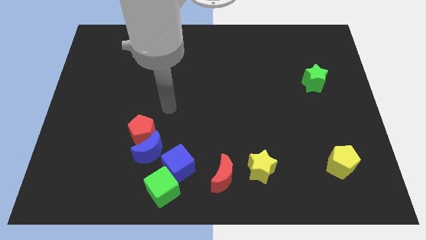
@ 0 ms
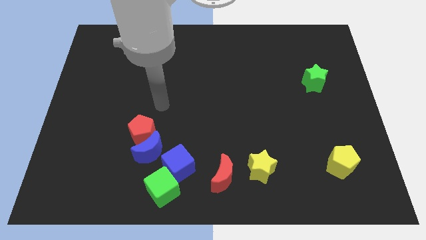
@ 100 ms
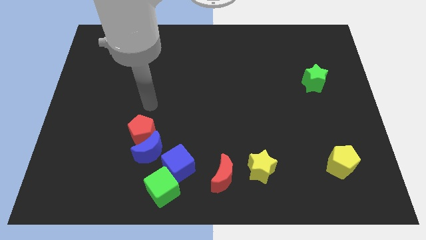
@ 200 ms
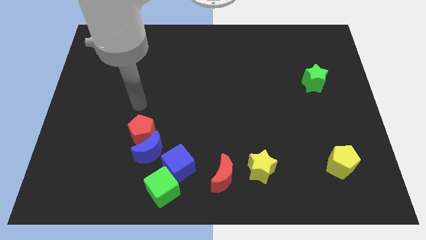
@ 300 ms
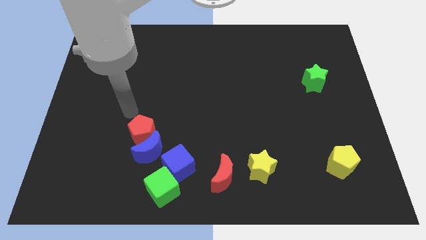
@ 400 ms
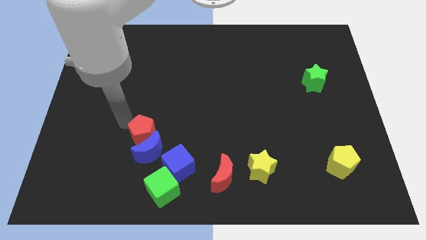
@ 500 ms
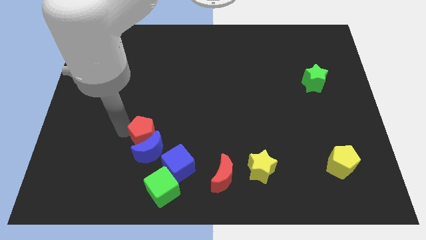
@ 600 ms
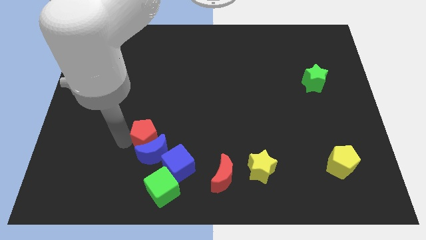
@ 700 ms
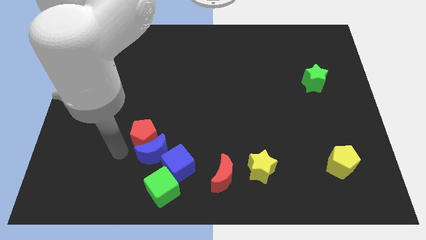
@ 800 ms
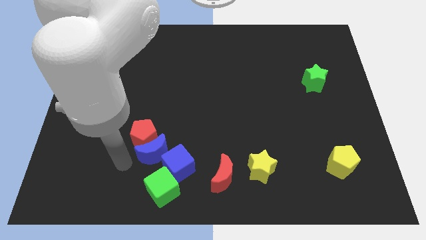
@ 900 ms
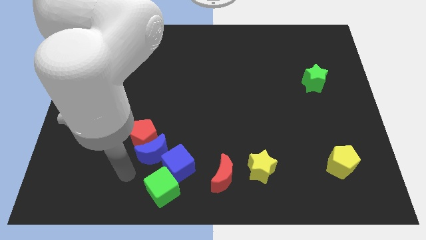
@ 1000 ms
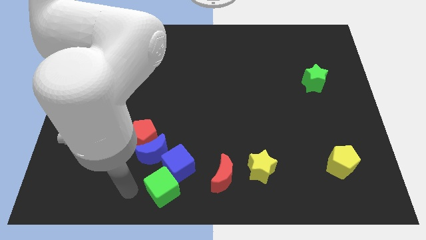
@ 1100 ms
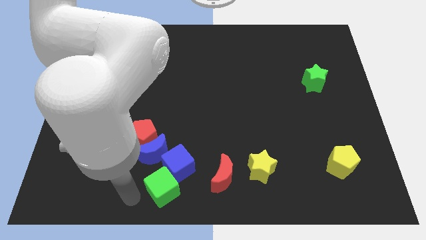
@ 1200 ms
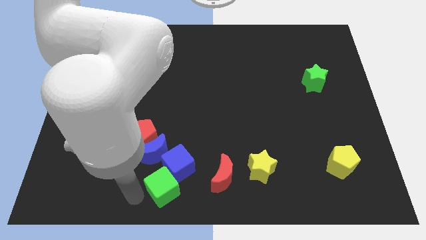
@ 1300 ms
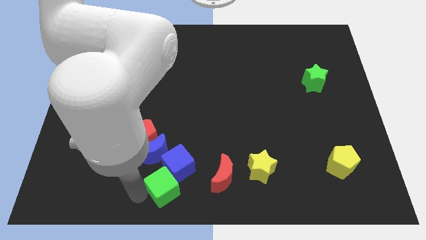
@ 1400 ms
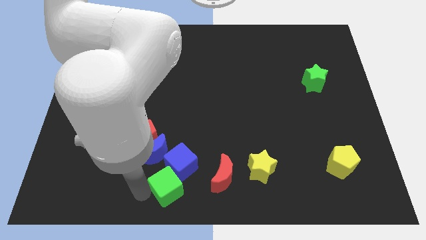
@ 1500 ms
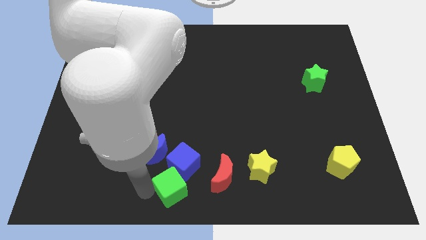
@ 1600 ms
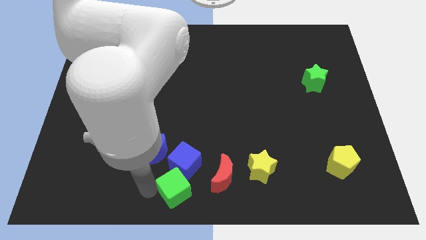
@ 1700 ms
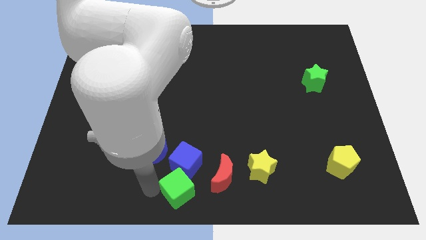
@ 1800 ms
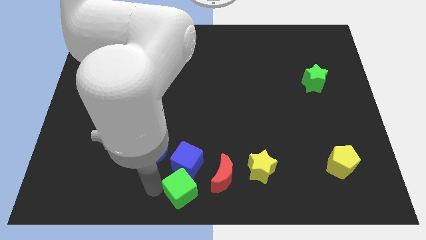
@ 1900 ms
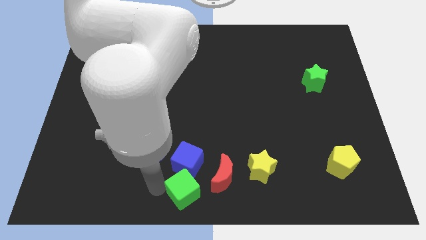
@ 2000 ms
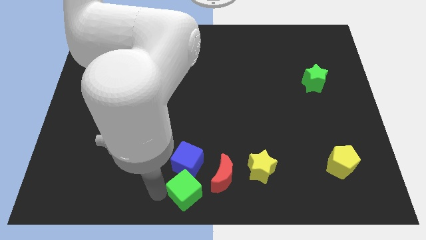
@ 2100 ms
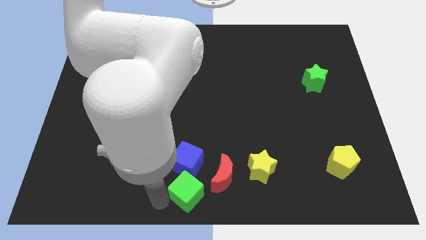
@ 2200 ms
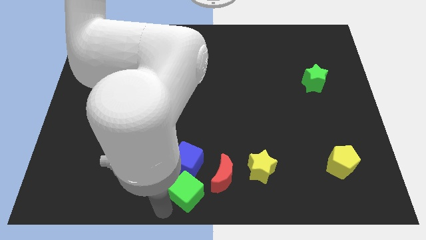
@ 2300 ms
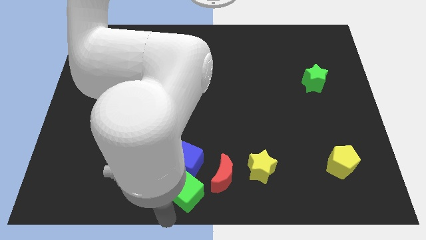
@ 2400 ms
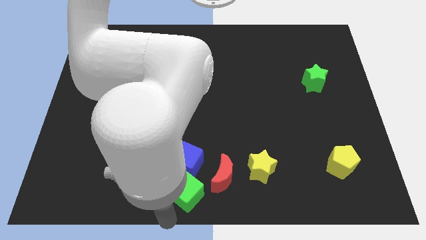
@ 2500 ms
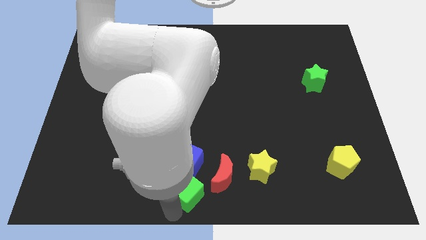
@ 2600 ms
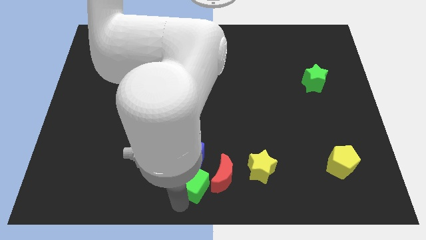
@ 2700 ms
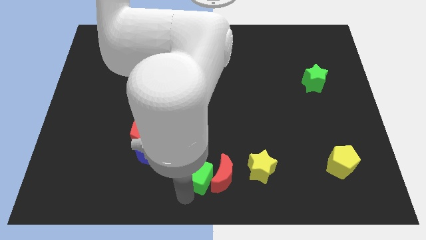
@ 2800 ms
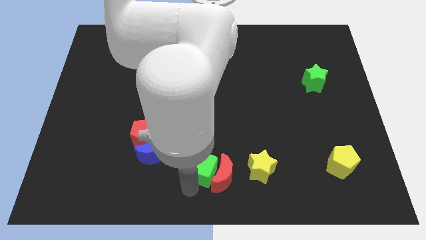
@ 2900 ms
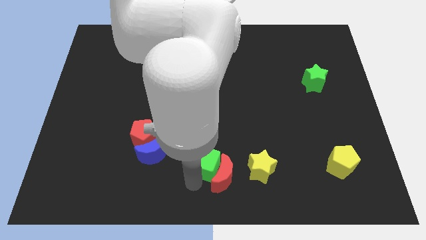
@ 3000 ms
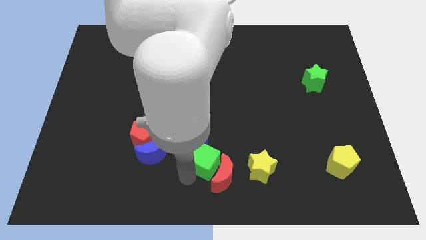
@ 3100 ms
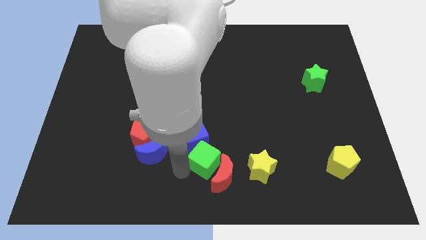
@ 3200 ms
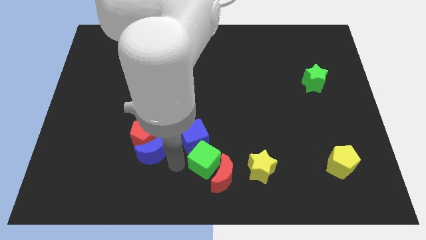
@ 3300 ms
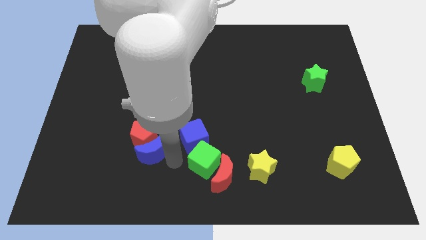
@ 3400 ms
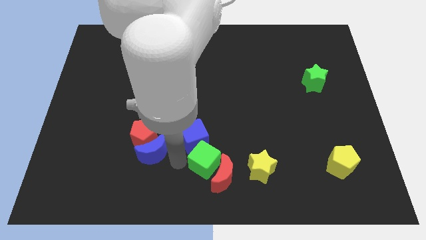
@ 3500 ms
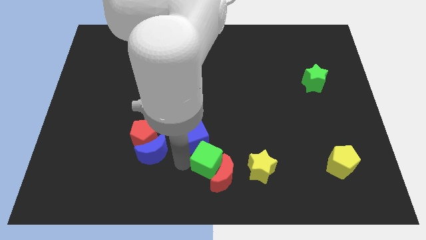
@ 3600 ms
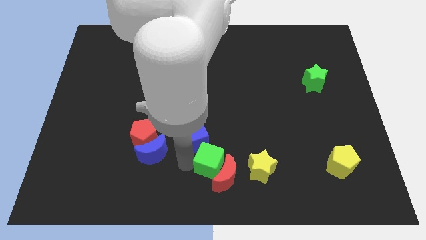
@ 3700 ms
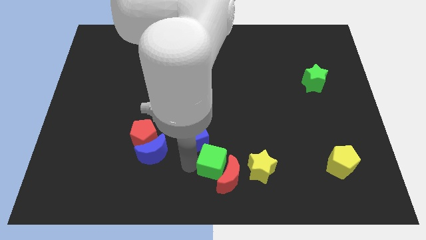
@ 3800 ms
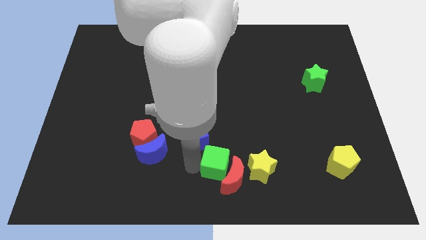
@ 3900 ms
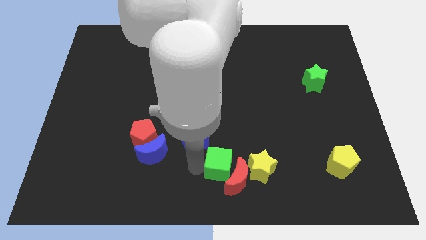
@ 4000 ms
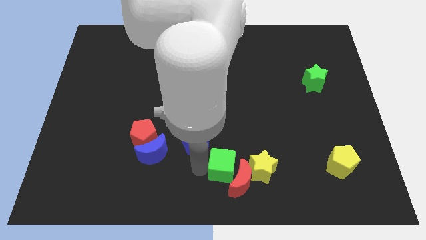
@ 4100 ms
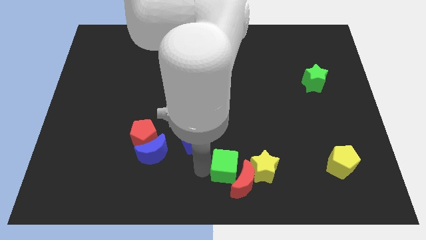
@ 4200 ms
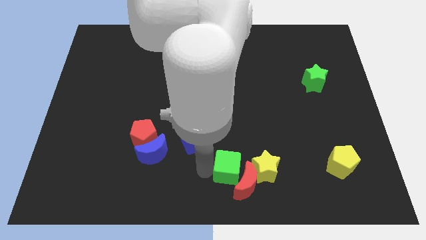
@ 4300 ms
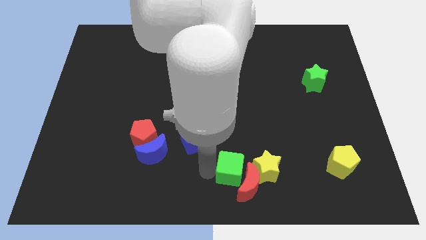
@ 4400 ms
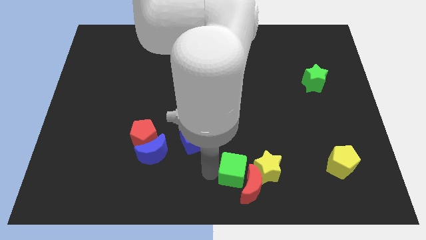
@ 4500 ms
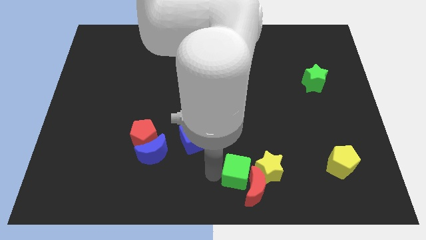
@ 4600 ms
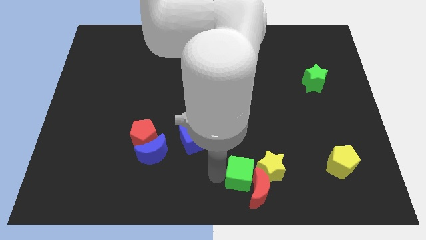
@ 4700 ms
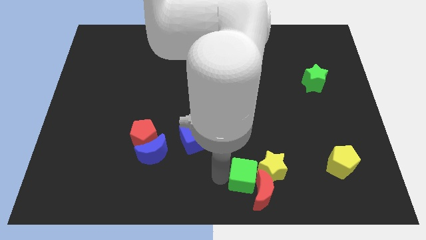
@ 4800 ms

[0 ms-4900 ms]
slide the green cube close to the yellow star

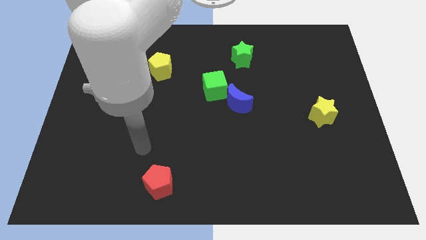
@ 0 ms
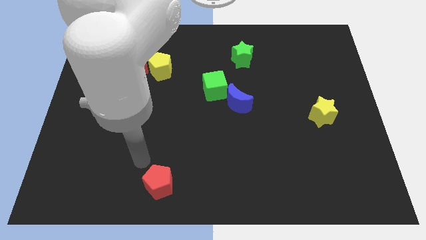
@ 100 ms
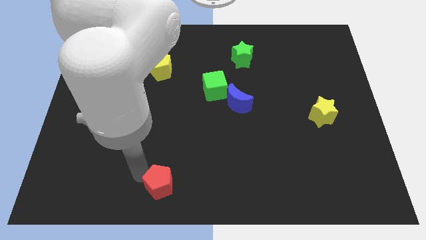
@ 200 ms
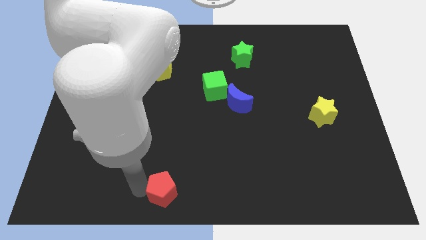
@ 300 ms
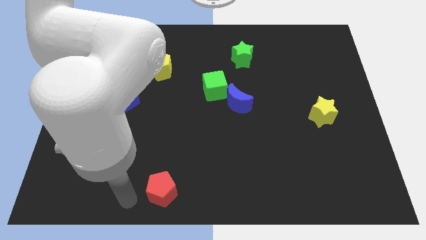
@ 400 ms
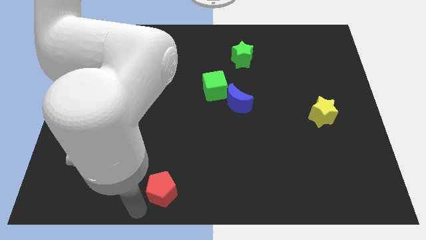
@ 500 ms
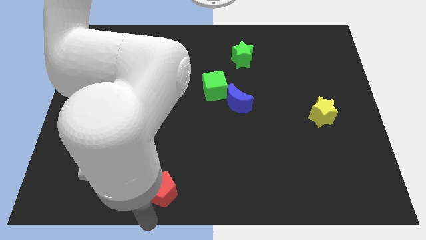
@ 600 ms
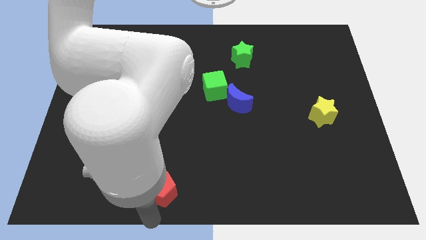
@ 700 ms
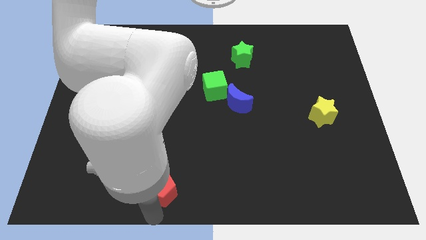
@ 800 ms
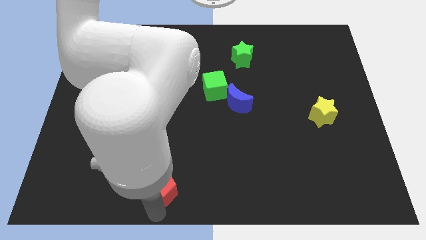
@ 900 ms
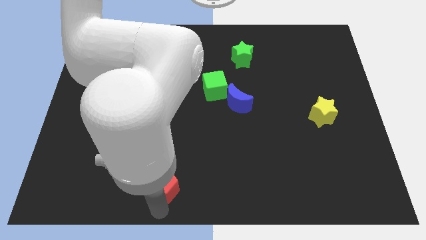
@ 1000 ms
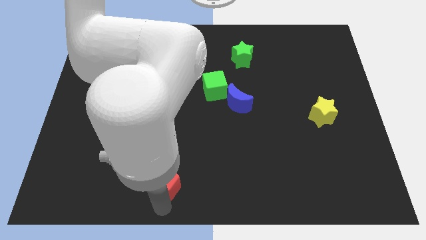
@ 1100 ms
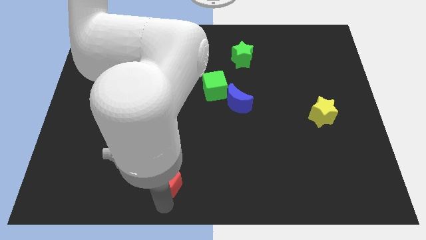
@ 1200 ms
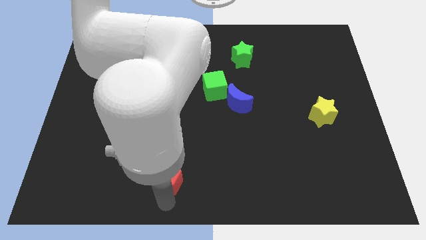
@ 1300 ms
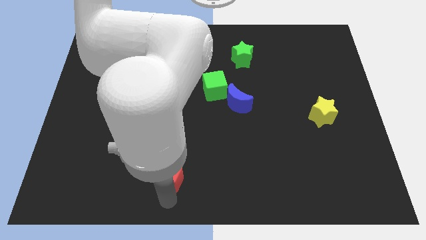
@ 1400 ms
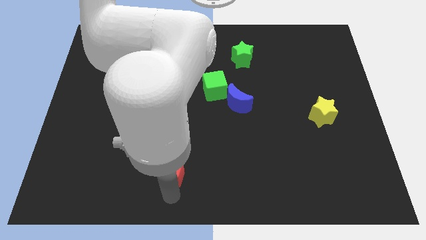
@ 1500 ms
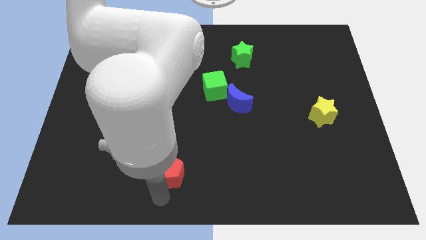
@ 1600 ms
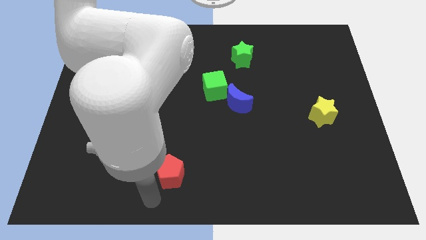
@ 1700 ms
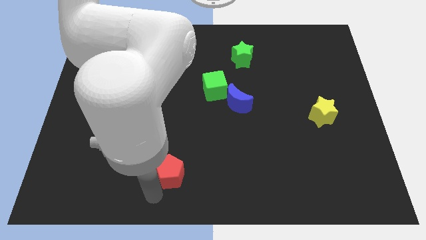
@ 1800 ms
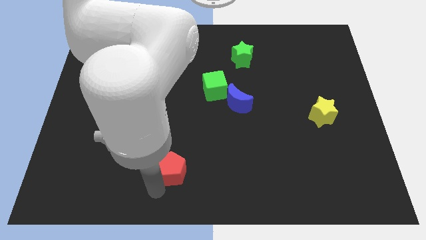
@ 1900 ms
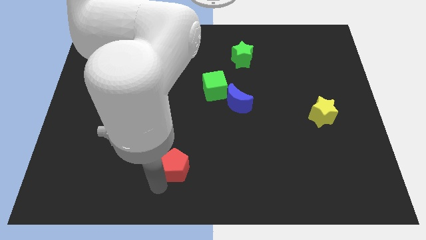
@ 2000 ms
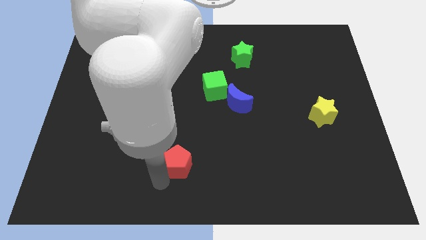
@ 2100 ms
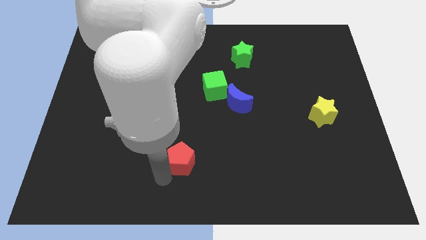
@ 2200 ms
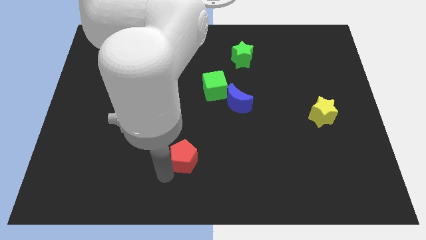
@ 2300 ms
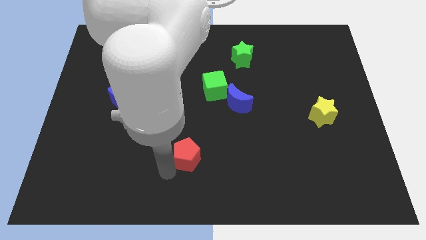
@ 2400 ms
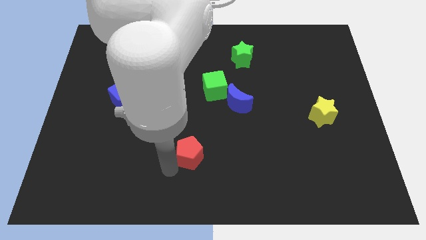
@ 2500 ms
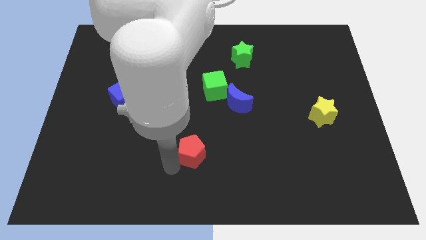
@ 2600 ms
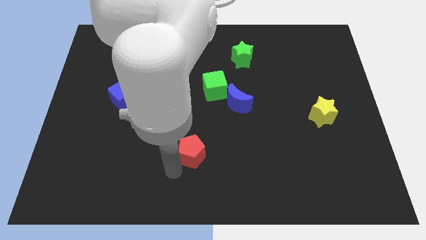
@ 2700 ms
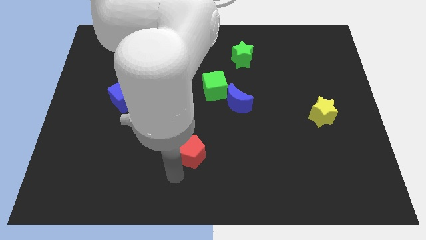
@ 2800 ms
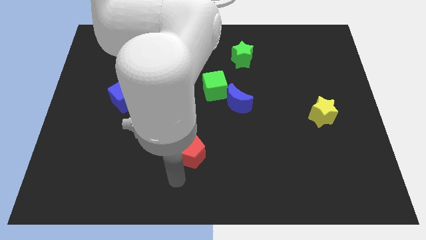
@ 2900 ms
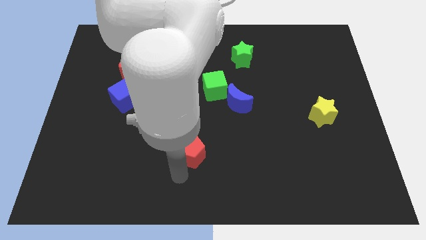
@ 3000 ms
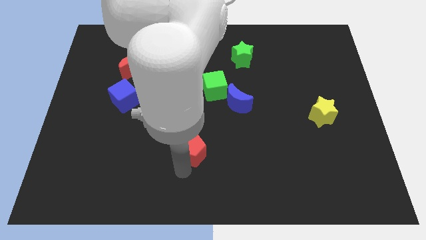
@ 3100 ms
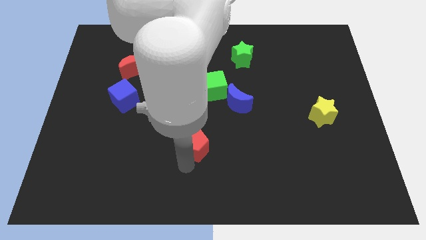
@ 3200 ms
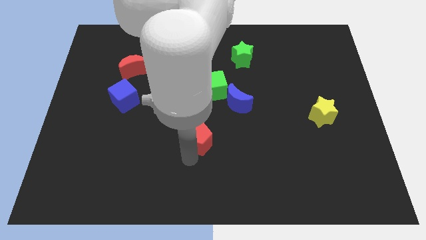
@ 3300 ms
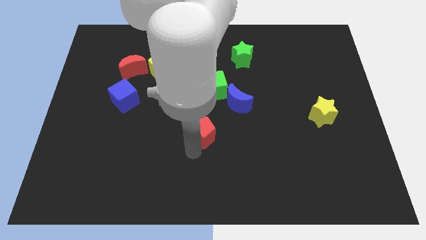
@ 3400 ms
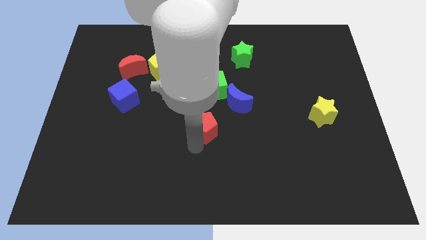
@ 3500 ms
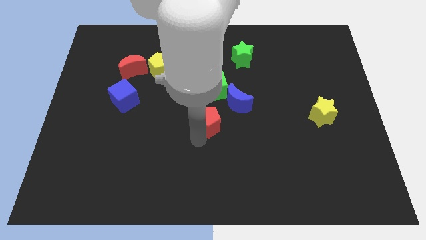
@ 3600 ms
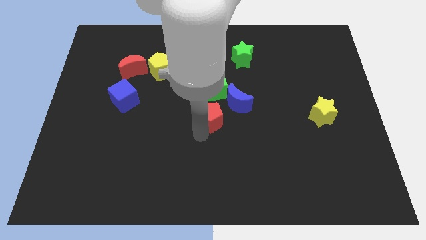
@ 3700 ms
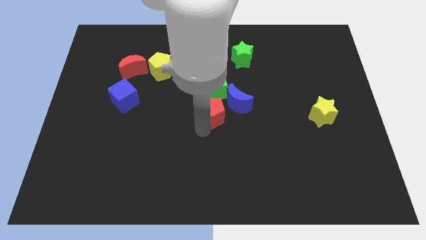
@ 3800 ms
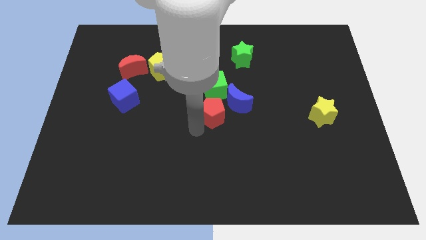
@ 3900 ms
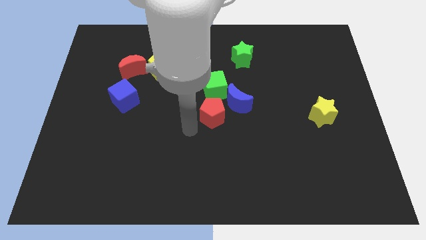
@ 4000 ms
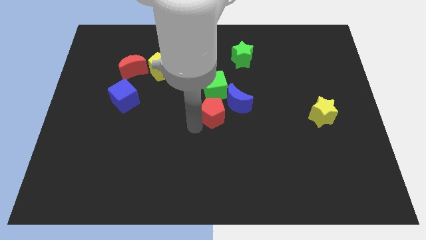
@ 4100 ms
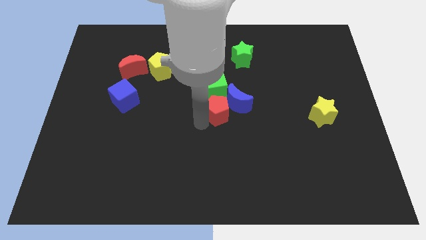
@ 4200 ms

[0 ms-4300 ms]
push the red pentagon next to the blue moon
